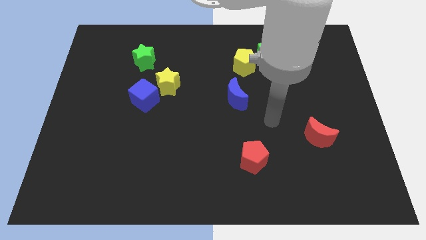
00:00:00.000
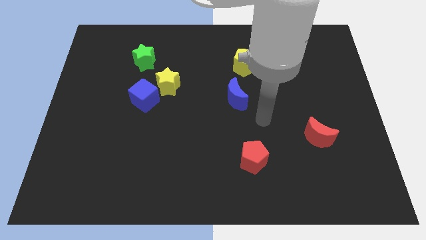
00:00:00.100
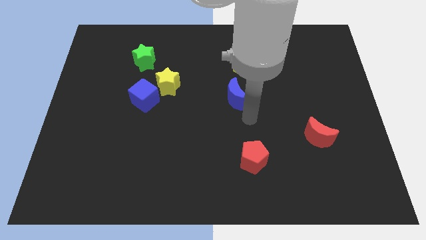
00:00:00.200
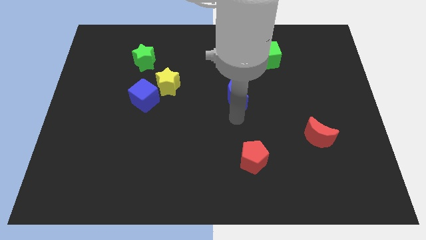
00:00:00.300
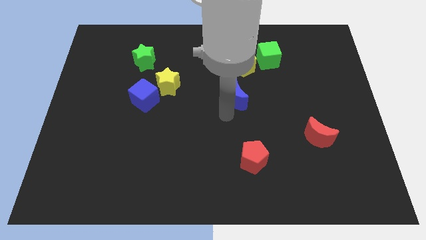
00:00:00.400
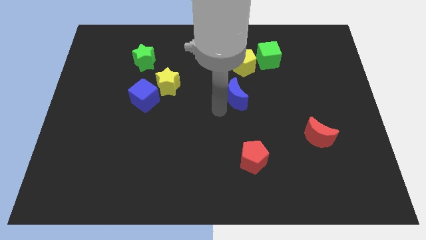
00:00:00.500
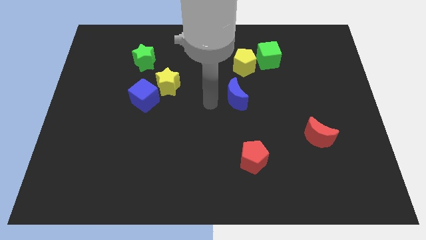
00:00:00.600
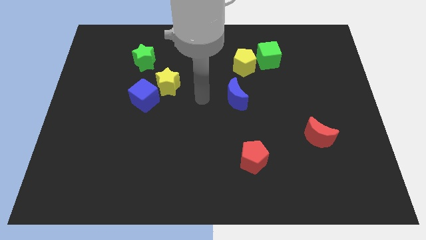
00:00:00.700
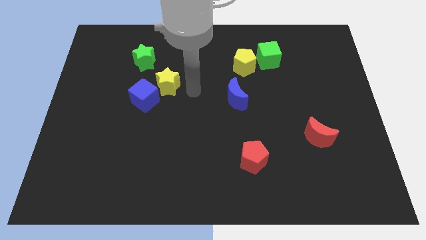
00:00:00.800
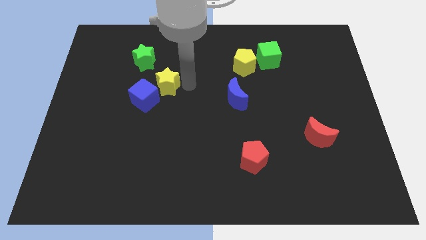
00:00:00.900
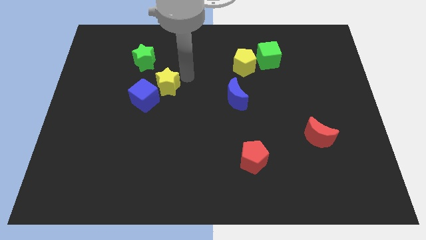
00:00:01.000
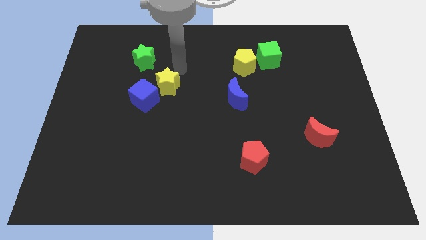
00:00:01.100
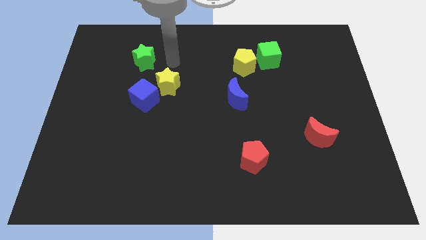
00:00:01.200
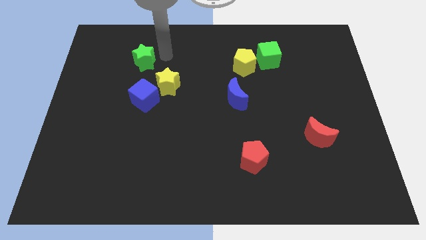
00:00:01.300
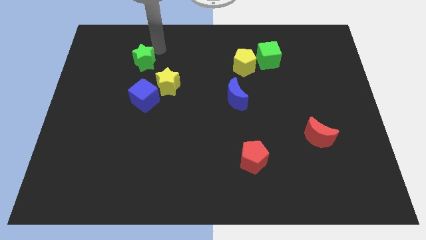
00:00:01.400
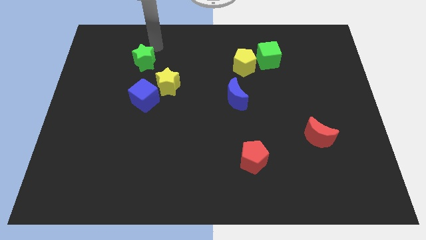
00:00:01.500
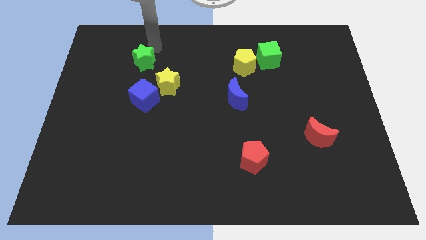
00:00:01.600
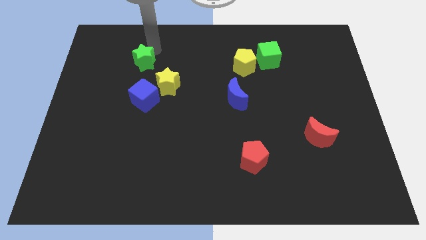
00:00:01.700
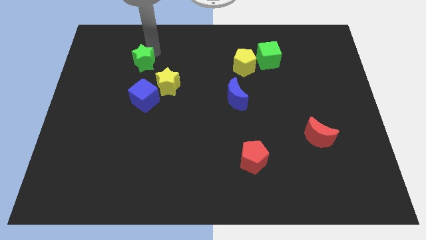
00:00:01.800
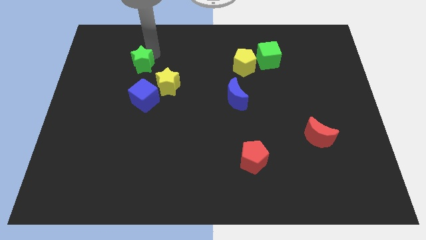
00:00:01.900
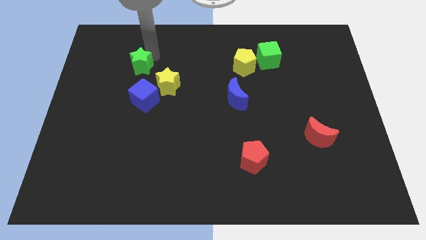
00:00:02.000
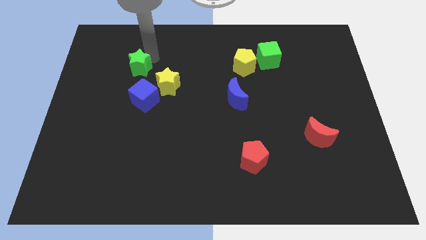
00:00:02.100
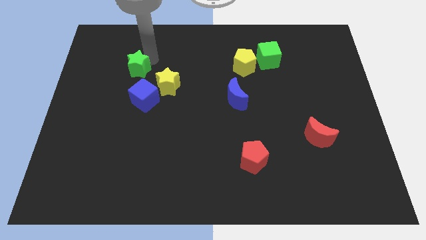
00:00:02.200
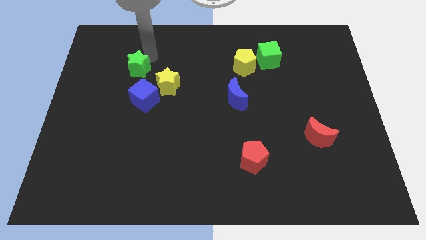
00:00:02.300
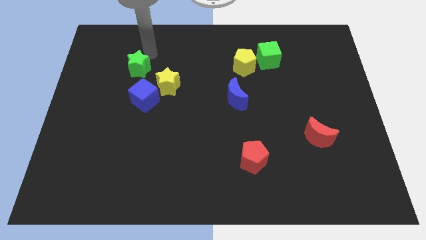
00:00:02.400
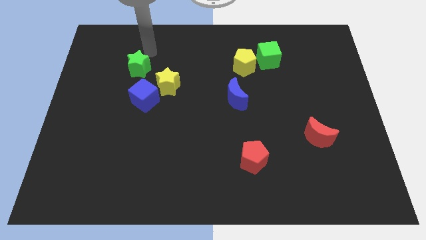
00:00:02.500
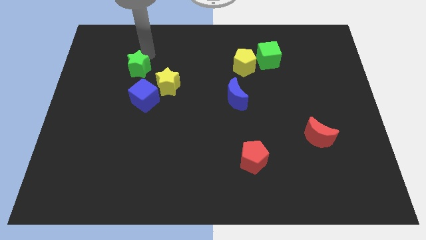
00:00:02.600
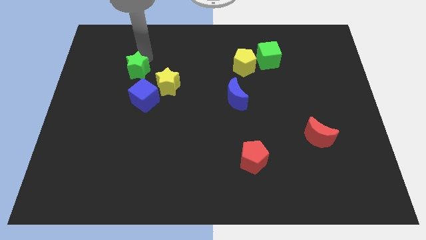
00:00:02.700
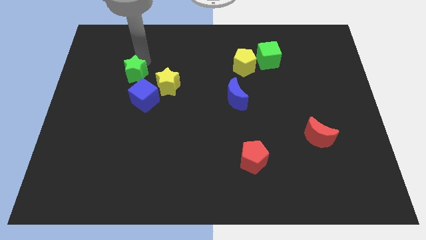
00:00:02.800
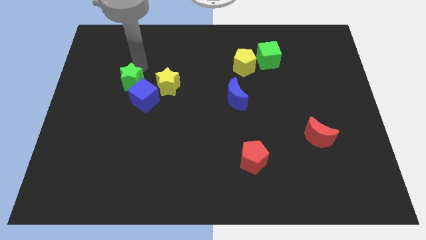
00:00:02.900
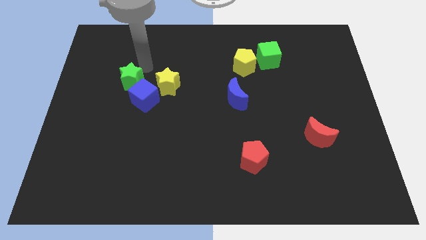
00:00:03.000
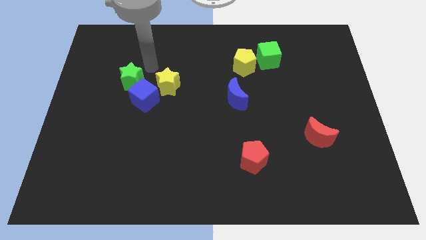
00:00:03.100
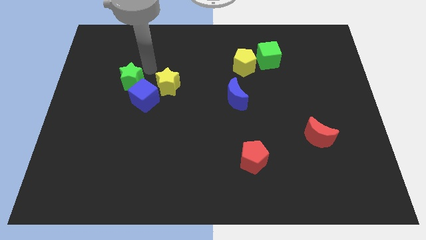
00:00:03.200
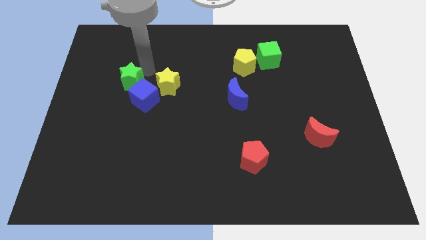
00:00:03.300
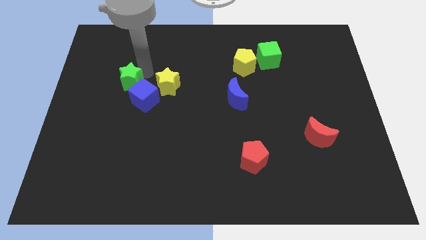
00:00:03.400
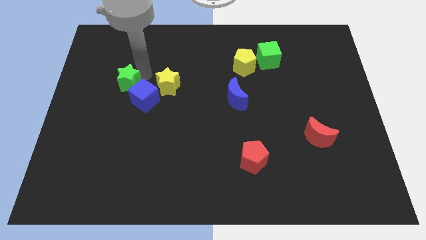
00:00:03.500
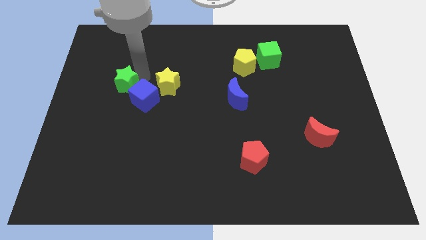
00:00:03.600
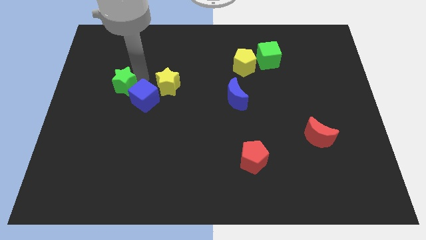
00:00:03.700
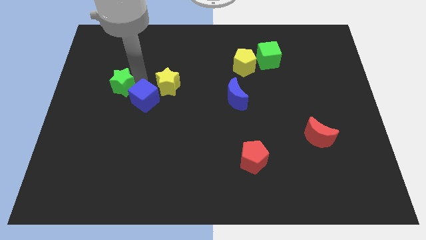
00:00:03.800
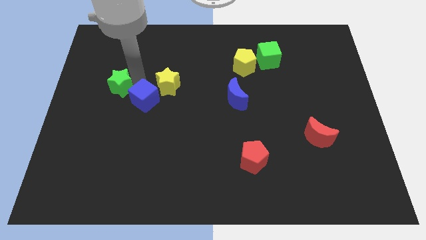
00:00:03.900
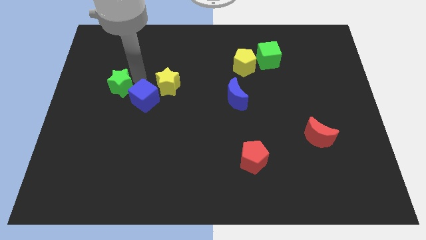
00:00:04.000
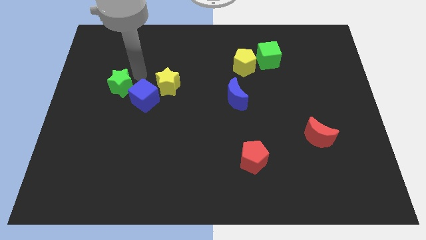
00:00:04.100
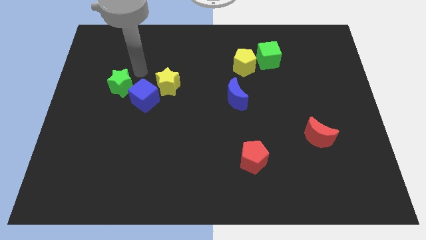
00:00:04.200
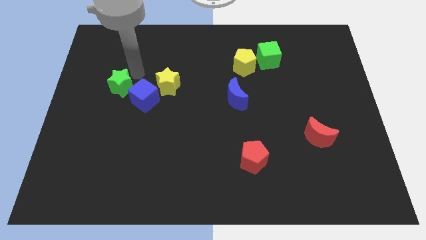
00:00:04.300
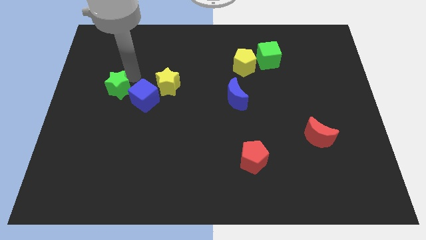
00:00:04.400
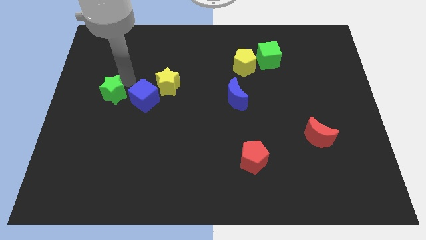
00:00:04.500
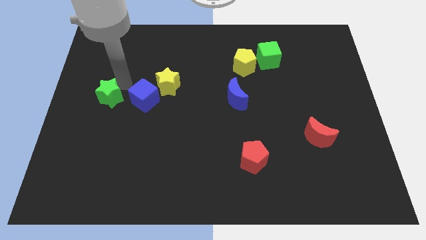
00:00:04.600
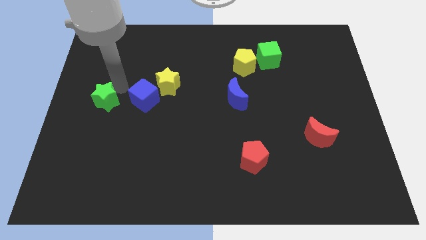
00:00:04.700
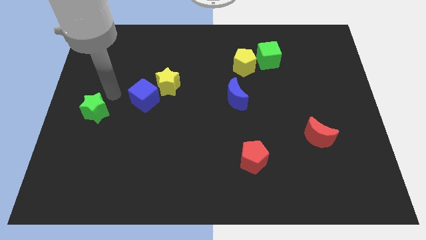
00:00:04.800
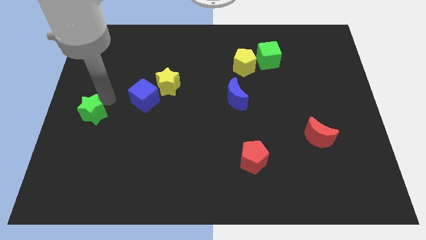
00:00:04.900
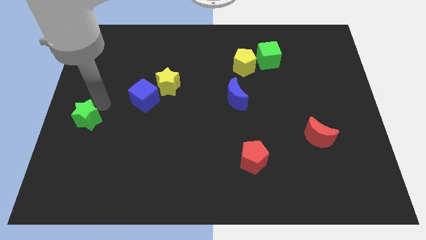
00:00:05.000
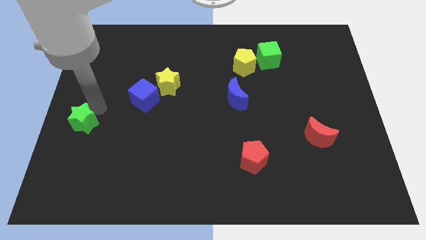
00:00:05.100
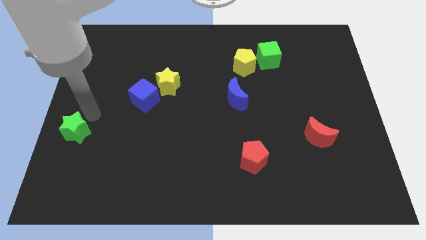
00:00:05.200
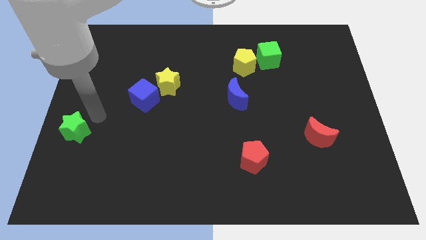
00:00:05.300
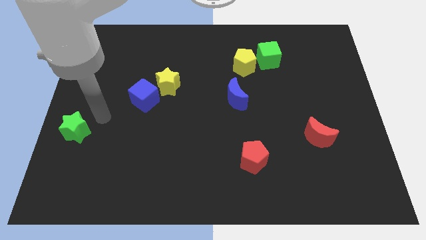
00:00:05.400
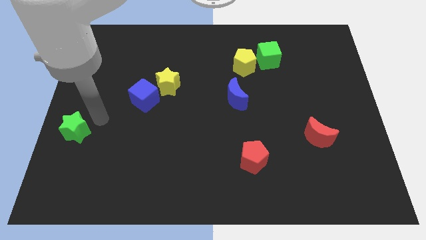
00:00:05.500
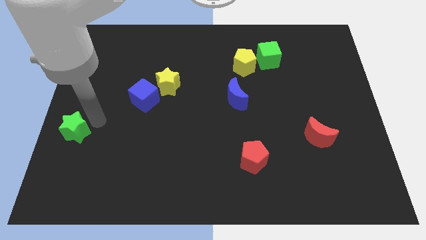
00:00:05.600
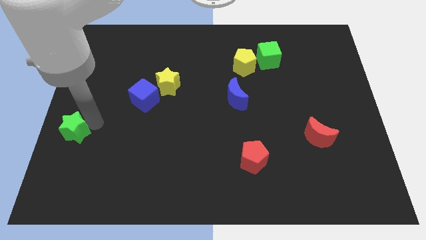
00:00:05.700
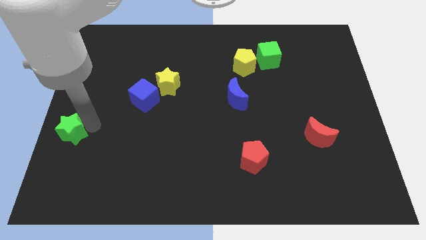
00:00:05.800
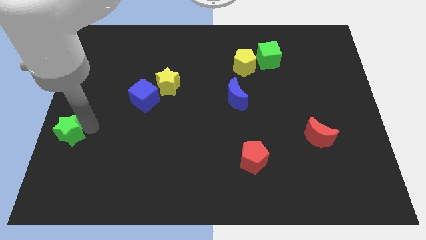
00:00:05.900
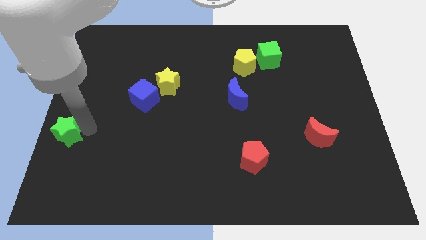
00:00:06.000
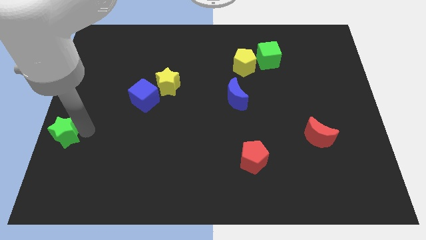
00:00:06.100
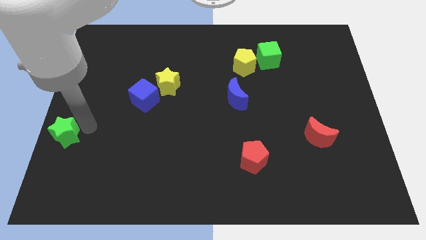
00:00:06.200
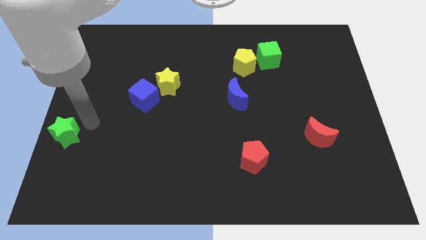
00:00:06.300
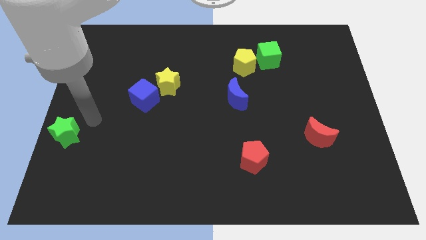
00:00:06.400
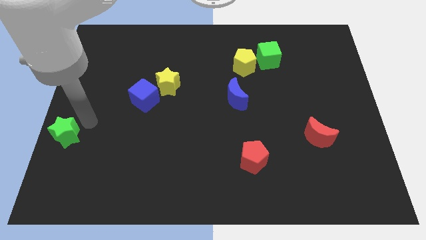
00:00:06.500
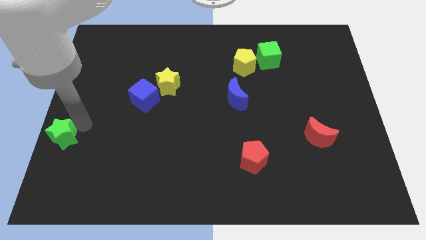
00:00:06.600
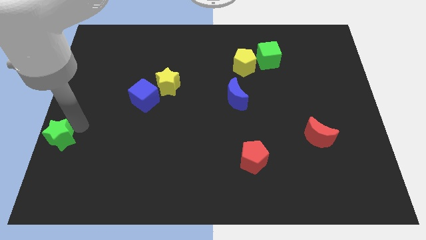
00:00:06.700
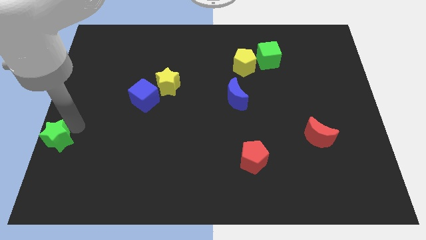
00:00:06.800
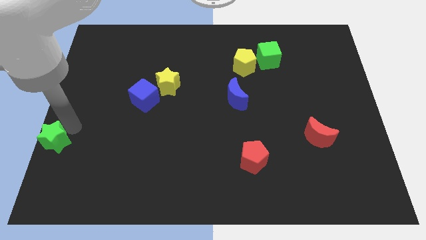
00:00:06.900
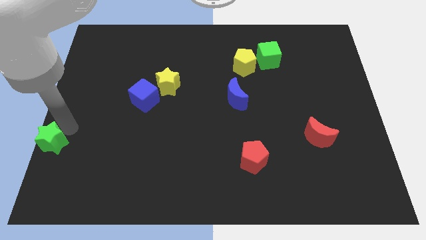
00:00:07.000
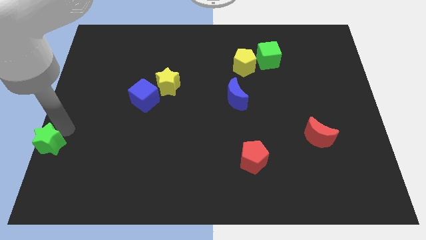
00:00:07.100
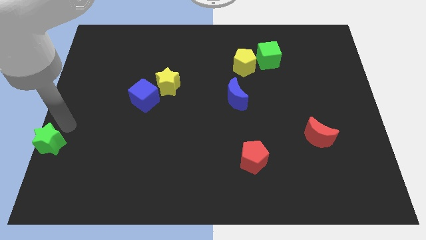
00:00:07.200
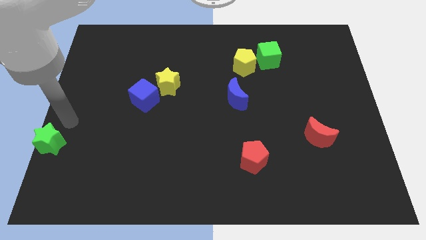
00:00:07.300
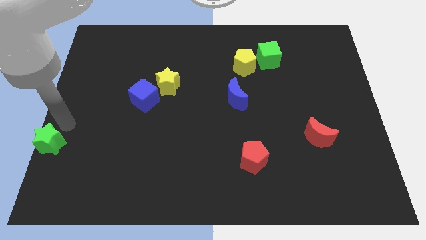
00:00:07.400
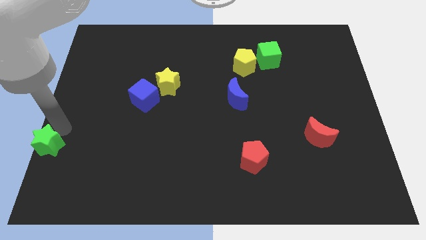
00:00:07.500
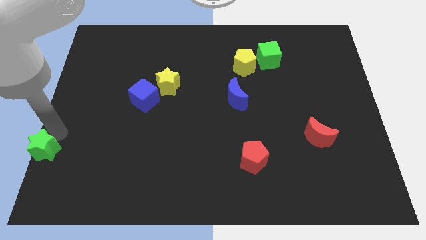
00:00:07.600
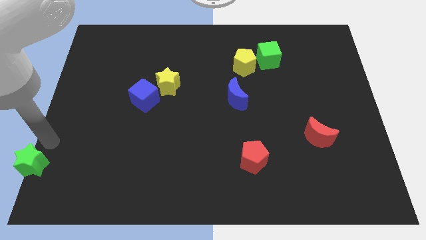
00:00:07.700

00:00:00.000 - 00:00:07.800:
push the green star to the bottom left corner

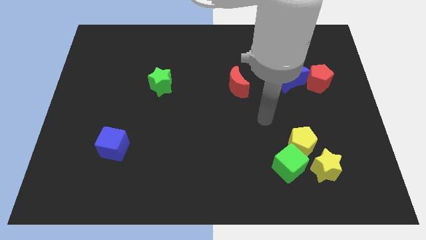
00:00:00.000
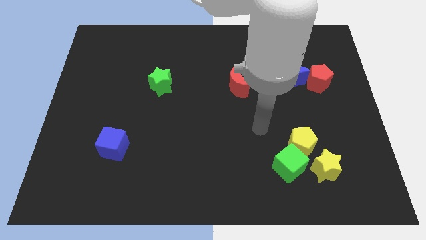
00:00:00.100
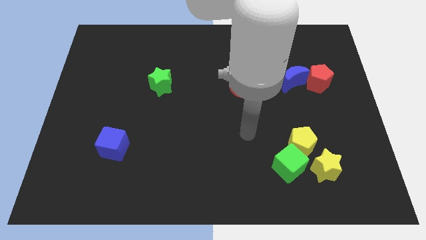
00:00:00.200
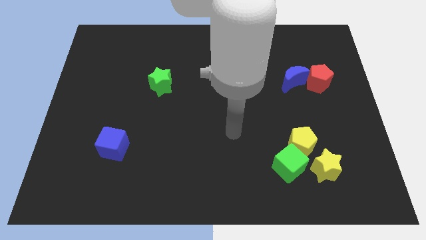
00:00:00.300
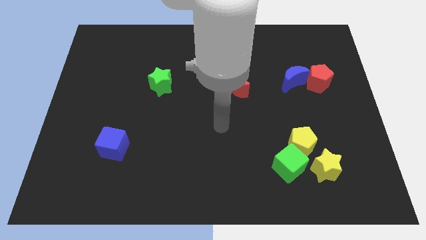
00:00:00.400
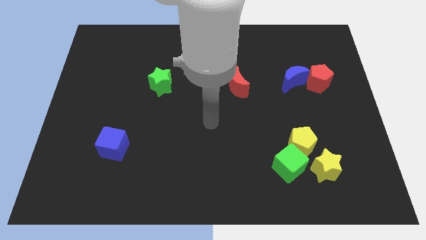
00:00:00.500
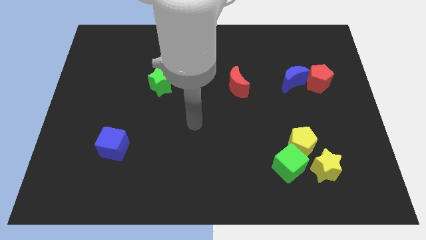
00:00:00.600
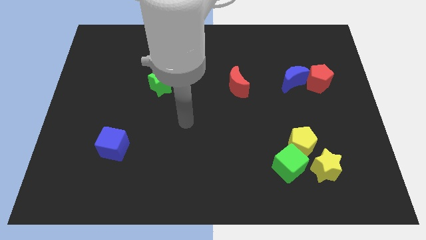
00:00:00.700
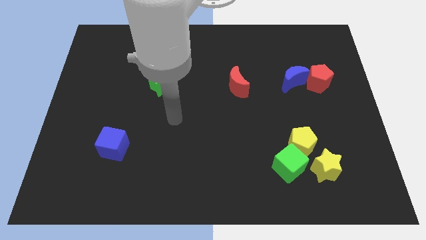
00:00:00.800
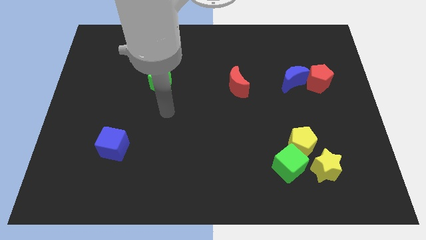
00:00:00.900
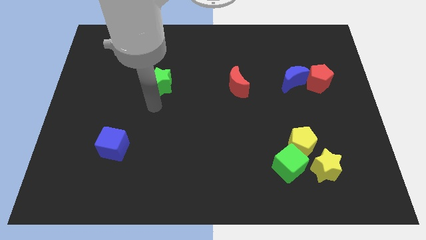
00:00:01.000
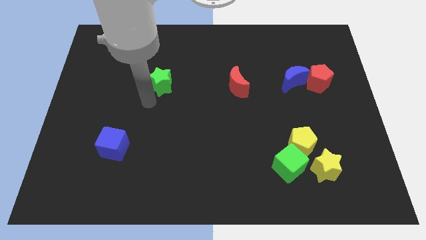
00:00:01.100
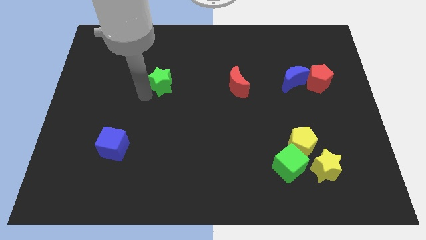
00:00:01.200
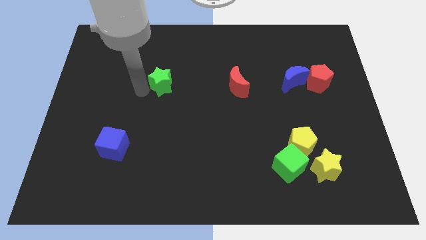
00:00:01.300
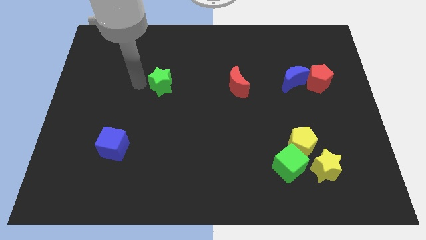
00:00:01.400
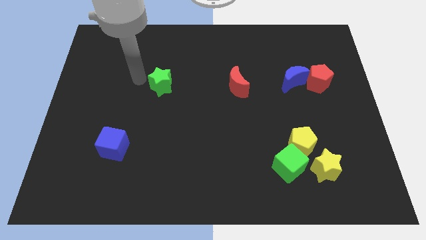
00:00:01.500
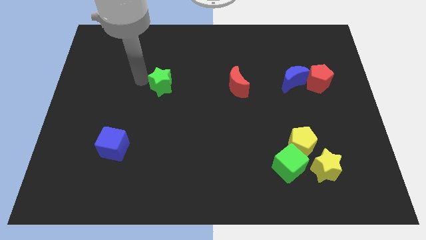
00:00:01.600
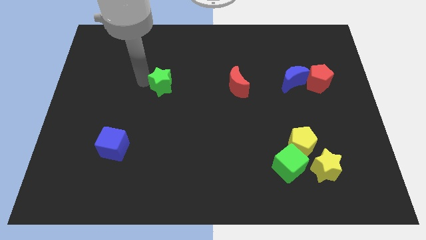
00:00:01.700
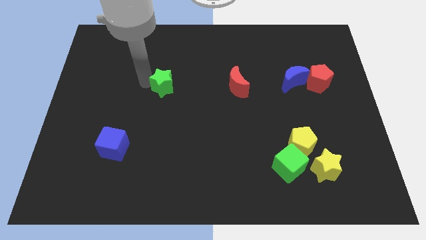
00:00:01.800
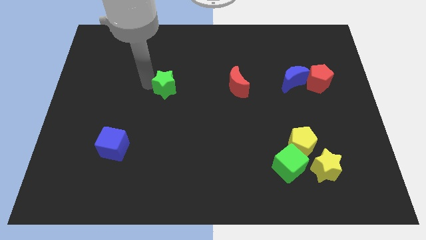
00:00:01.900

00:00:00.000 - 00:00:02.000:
move the green star to the center of the board
